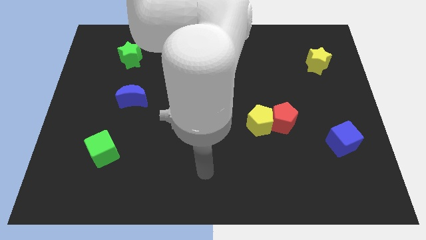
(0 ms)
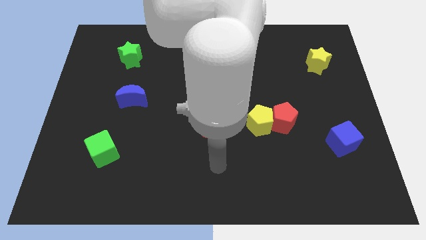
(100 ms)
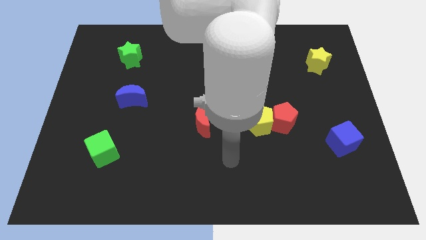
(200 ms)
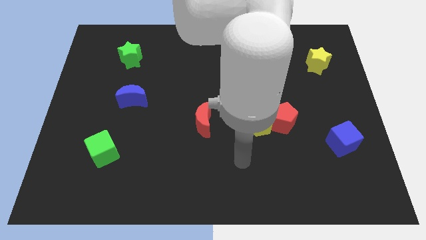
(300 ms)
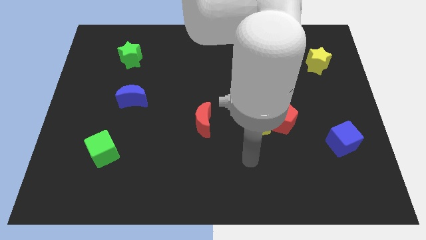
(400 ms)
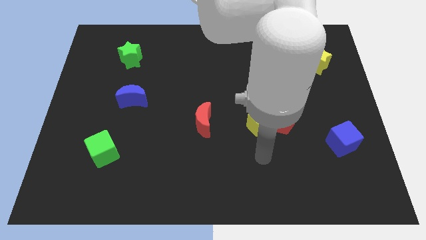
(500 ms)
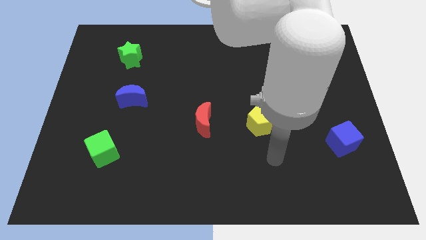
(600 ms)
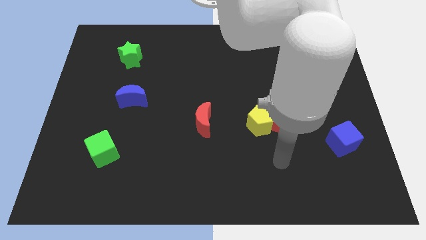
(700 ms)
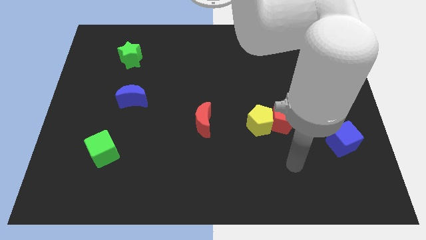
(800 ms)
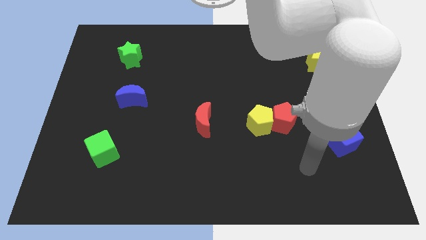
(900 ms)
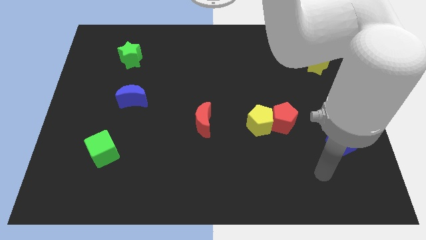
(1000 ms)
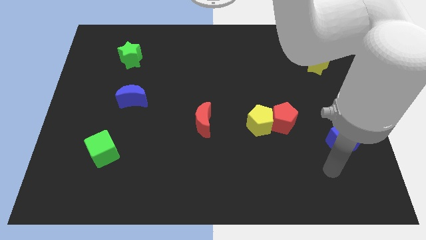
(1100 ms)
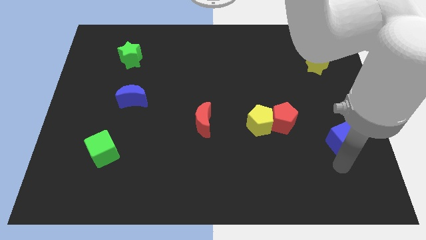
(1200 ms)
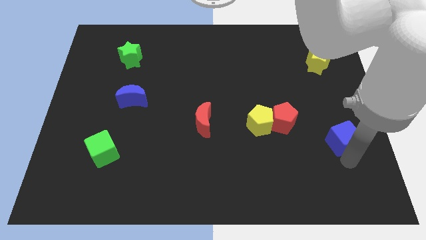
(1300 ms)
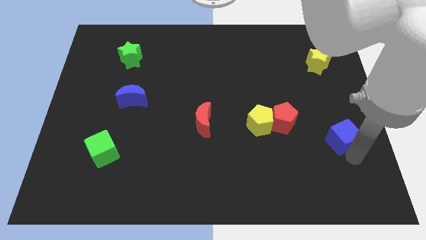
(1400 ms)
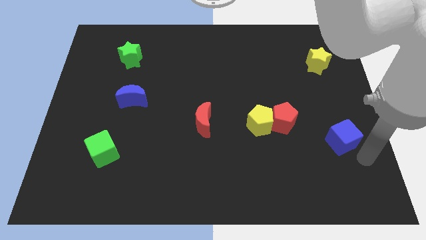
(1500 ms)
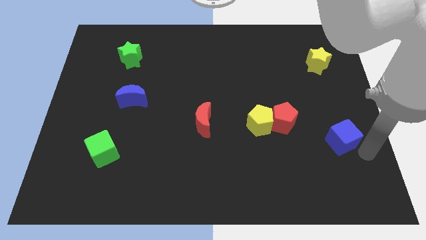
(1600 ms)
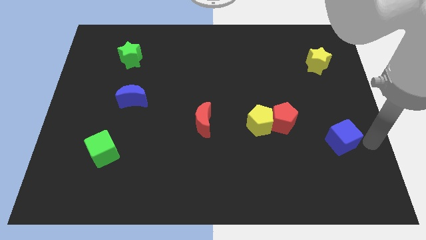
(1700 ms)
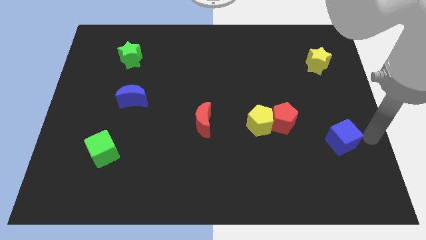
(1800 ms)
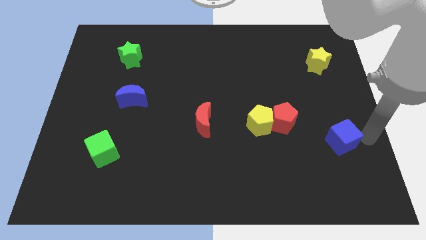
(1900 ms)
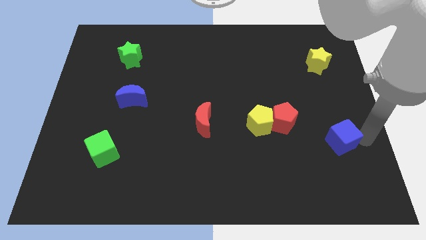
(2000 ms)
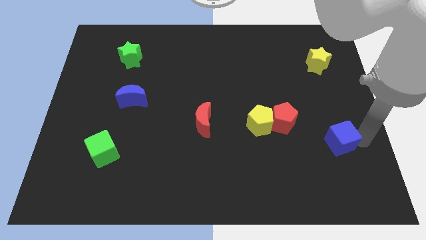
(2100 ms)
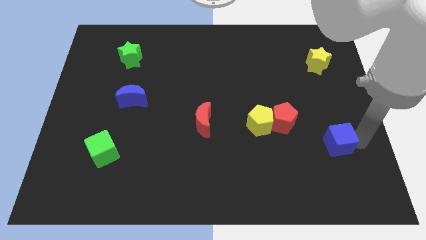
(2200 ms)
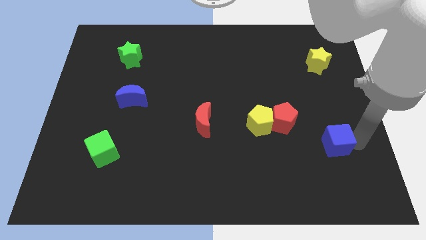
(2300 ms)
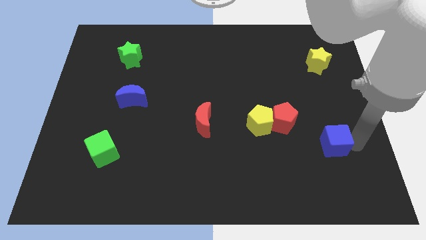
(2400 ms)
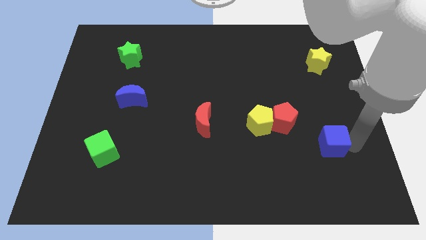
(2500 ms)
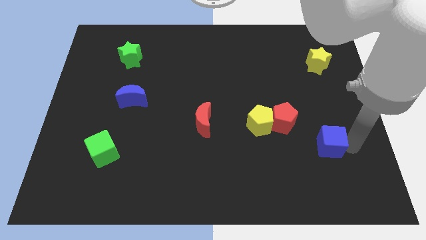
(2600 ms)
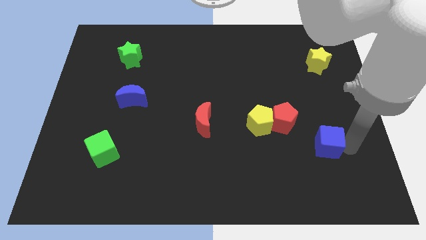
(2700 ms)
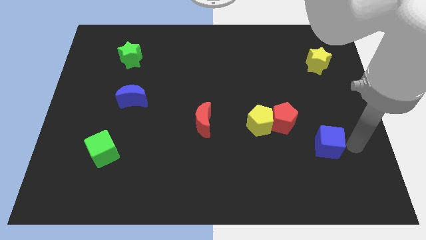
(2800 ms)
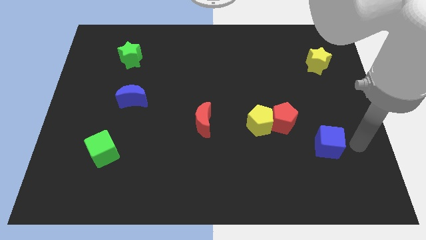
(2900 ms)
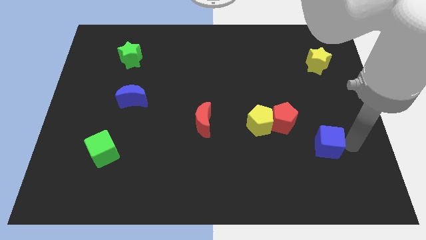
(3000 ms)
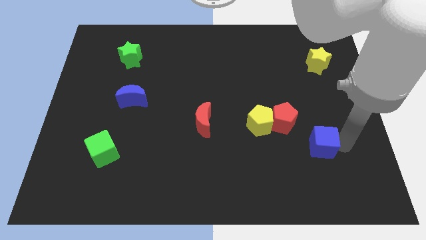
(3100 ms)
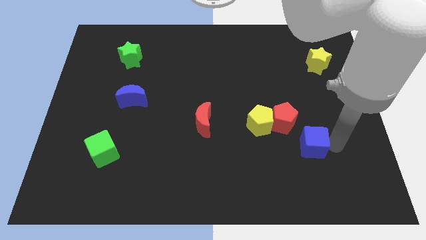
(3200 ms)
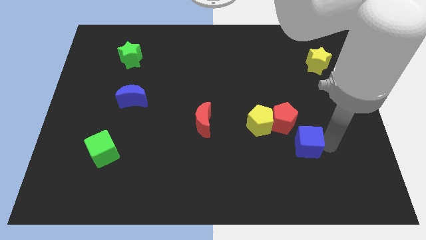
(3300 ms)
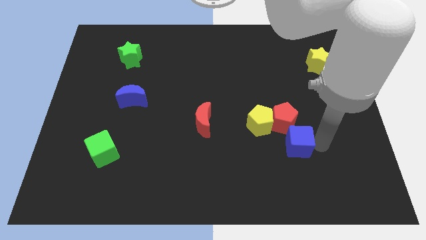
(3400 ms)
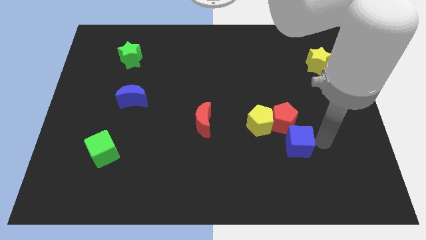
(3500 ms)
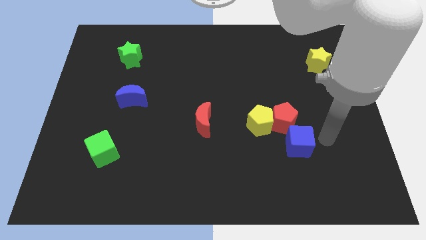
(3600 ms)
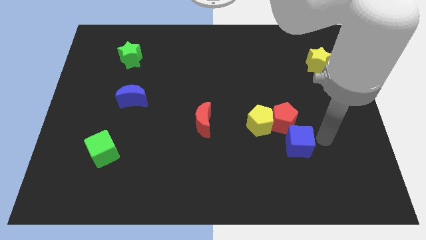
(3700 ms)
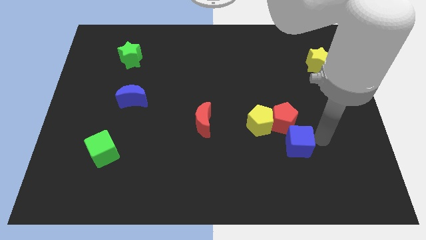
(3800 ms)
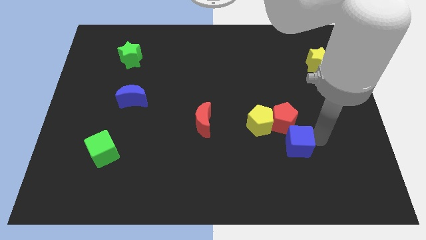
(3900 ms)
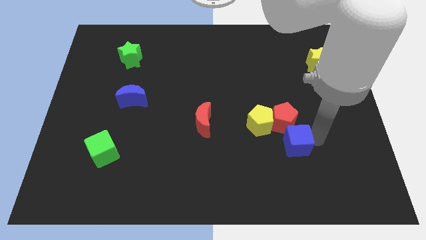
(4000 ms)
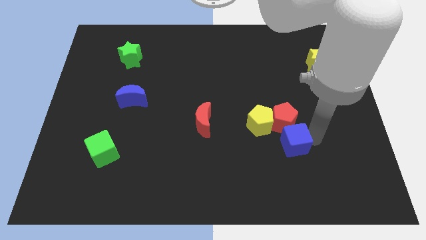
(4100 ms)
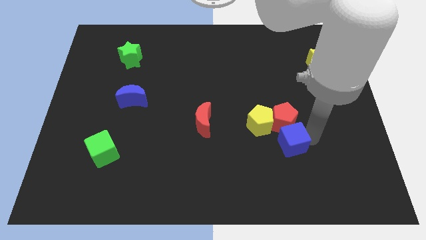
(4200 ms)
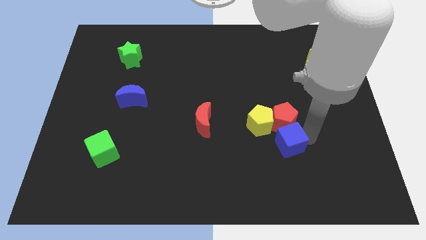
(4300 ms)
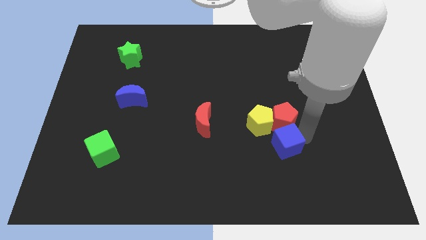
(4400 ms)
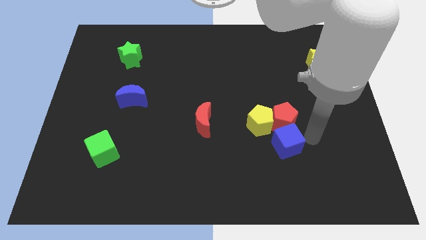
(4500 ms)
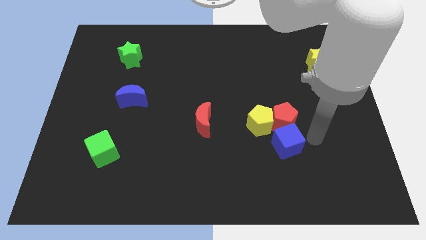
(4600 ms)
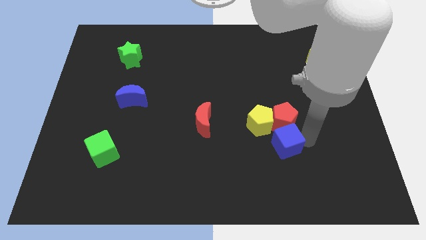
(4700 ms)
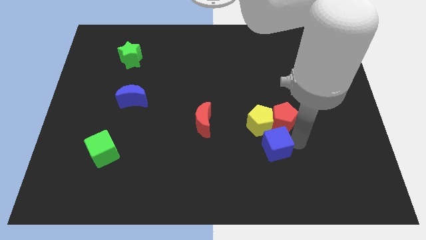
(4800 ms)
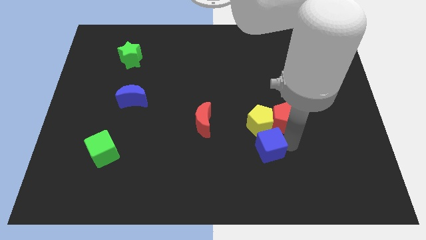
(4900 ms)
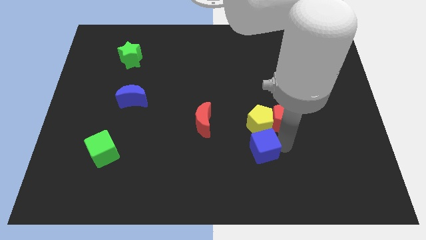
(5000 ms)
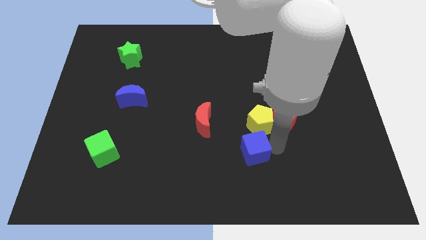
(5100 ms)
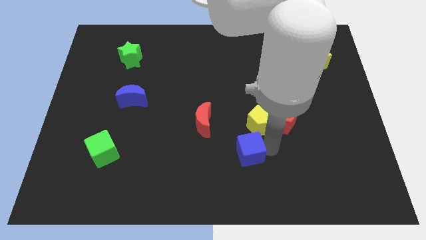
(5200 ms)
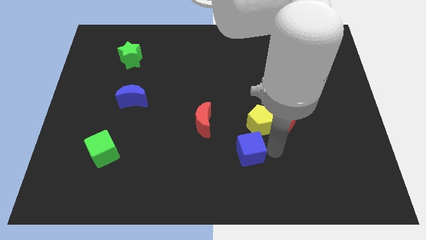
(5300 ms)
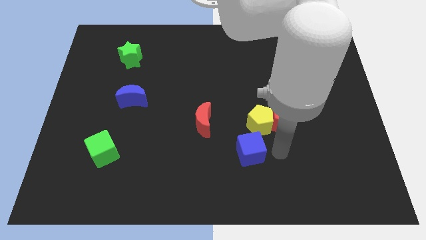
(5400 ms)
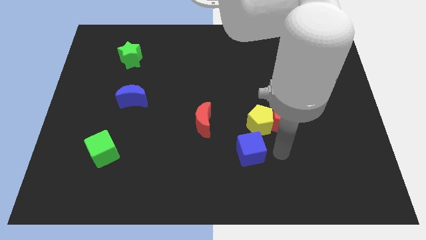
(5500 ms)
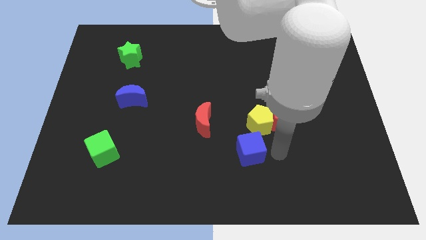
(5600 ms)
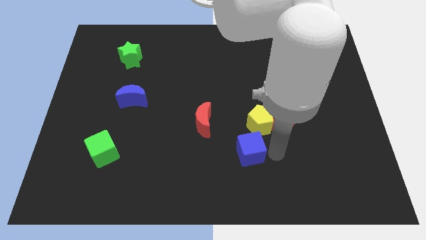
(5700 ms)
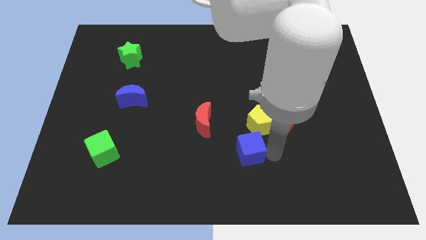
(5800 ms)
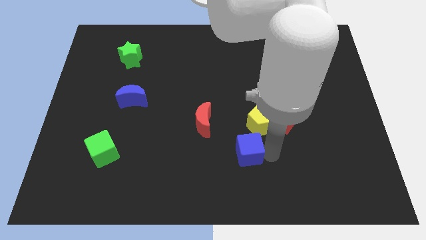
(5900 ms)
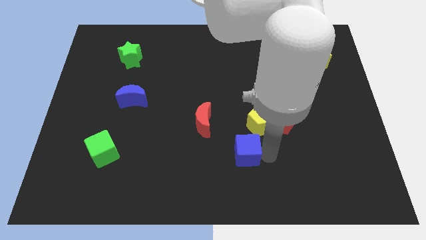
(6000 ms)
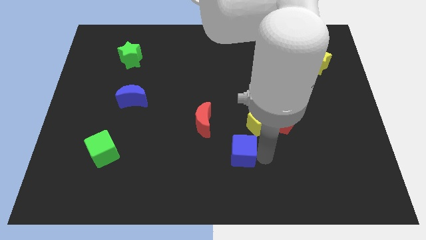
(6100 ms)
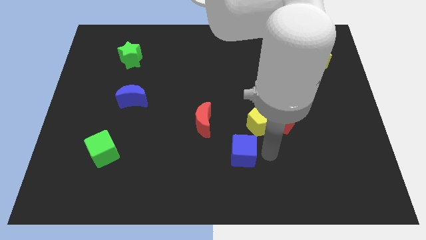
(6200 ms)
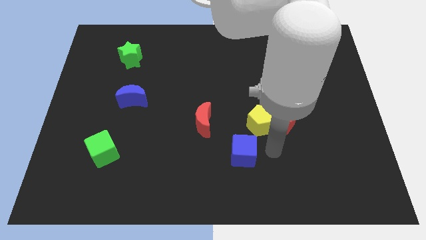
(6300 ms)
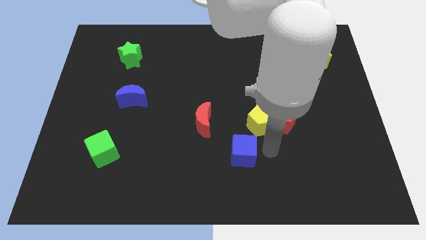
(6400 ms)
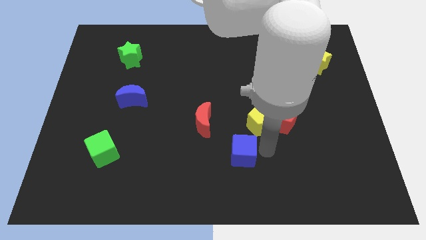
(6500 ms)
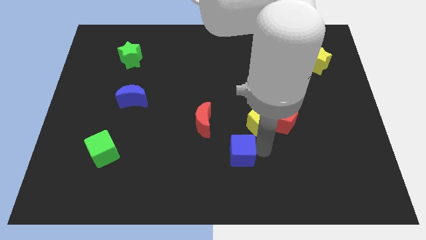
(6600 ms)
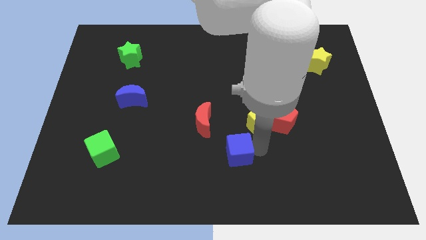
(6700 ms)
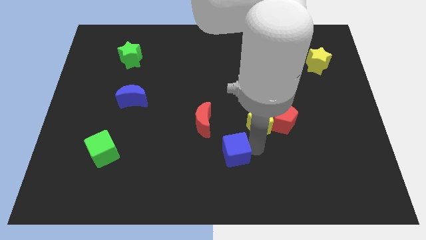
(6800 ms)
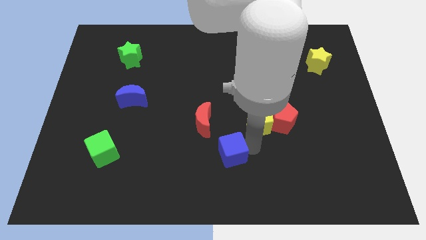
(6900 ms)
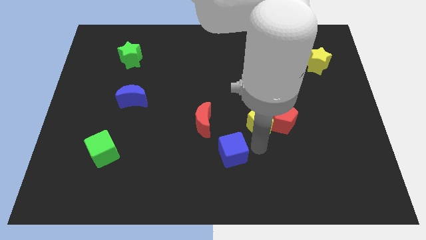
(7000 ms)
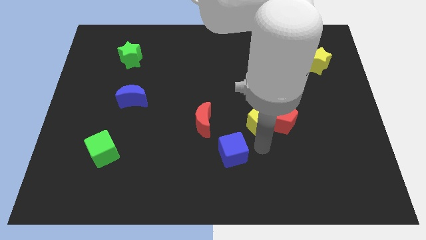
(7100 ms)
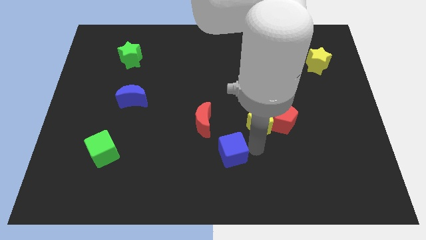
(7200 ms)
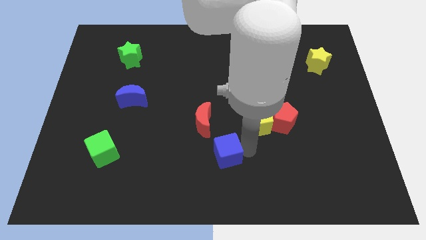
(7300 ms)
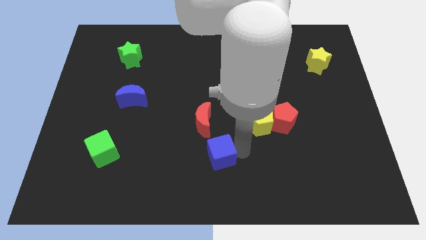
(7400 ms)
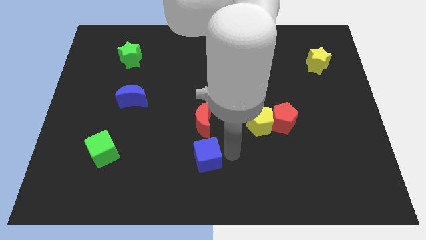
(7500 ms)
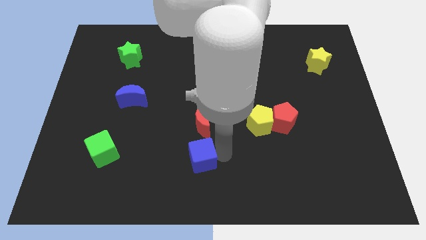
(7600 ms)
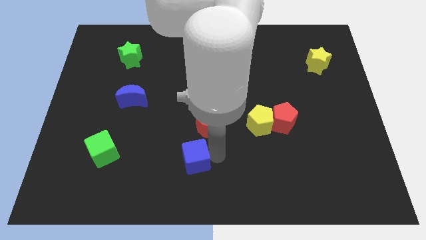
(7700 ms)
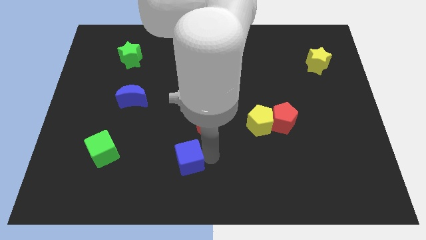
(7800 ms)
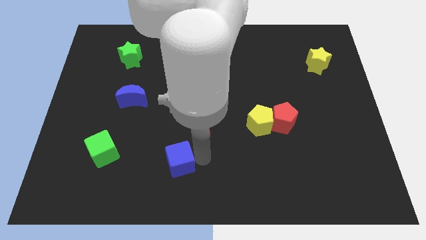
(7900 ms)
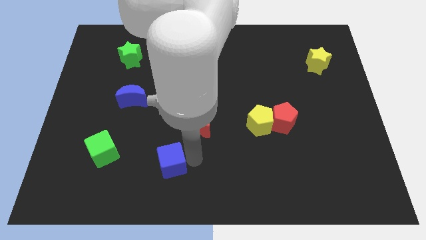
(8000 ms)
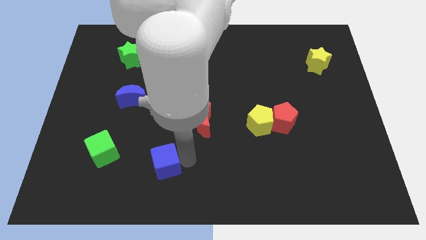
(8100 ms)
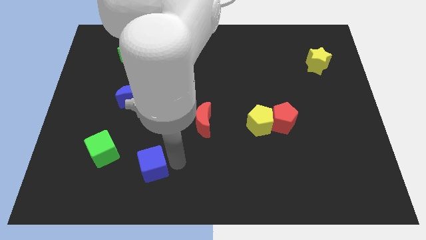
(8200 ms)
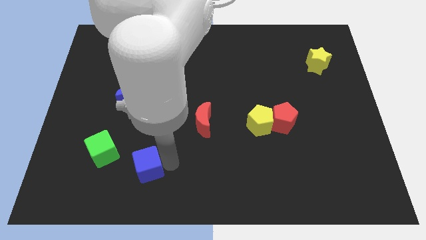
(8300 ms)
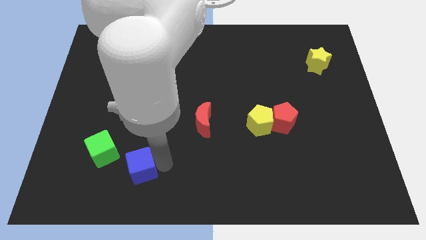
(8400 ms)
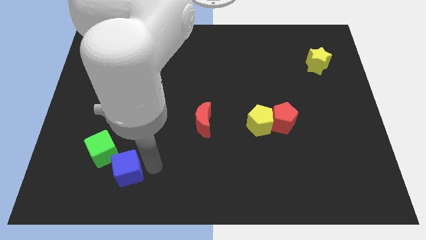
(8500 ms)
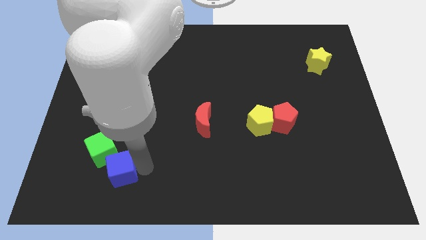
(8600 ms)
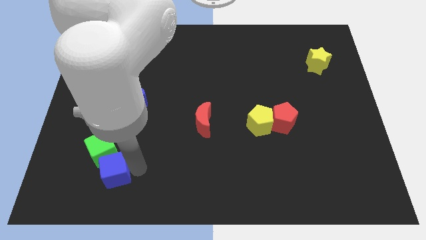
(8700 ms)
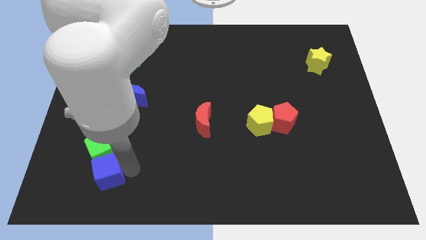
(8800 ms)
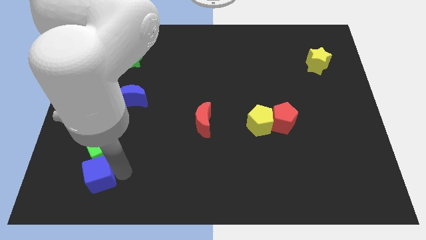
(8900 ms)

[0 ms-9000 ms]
put the blue cube to the bottom left of the green cube
